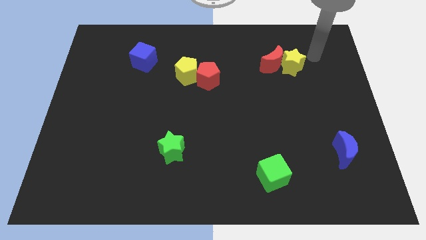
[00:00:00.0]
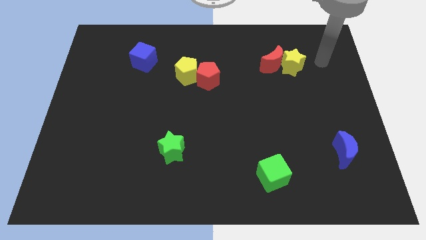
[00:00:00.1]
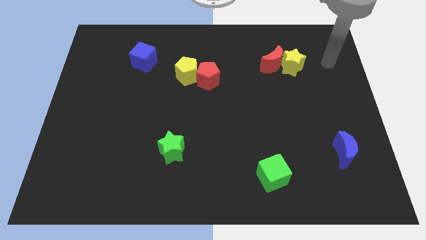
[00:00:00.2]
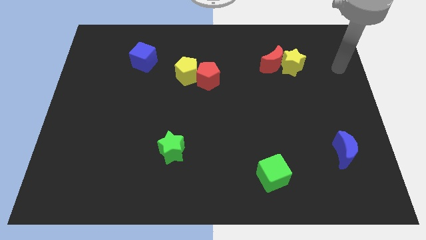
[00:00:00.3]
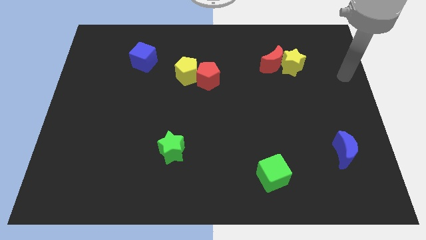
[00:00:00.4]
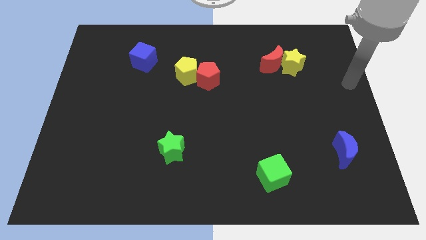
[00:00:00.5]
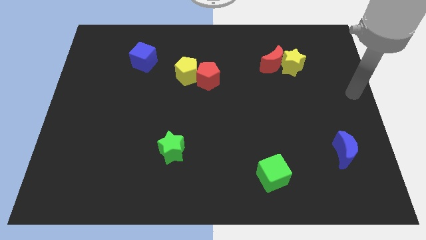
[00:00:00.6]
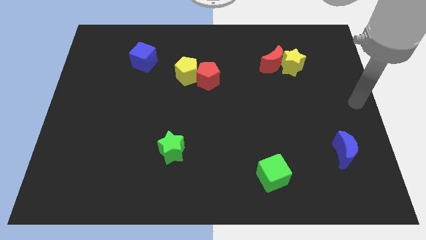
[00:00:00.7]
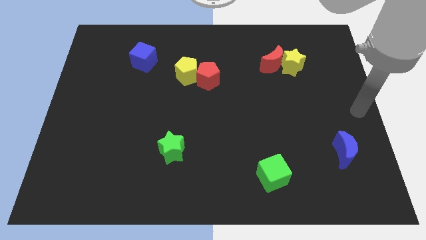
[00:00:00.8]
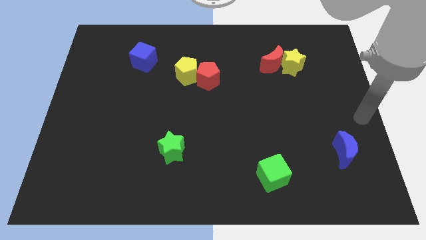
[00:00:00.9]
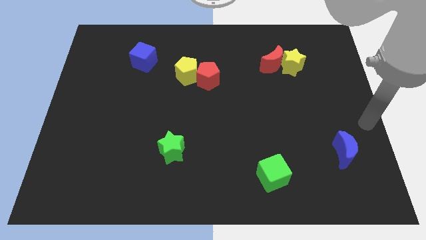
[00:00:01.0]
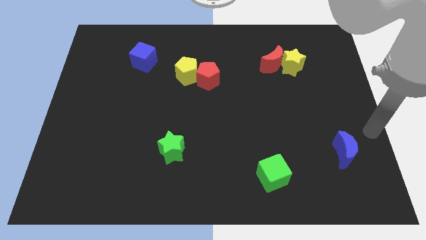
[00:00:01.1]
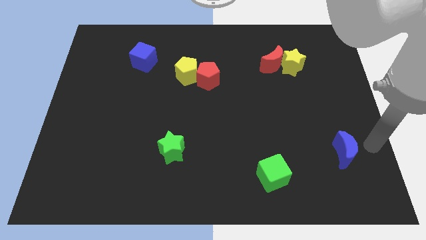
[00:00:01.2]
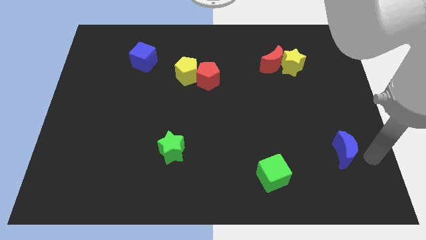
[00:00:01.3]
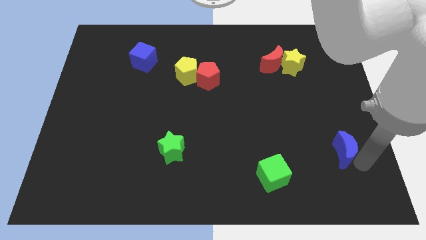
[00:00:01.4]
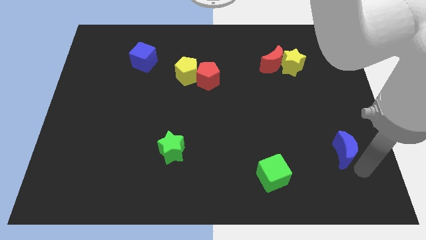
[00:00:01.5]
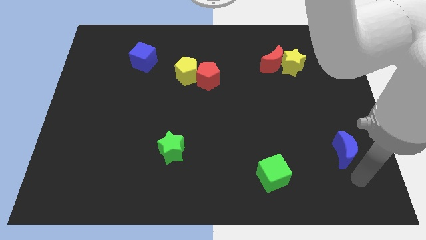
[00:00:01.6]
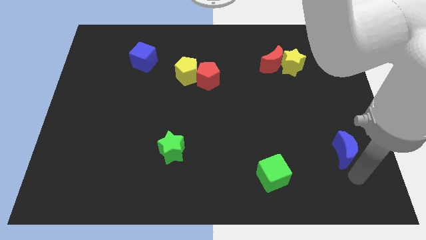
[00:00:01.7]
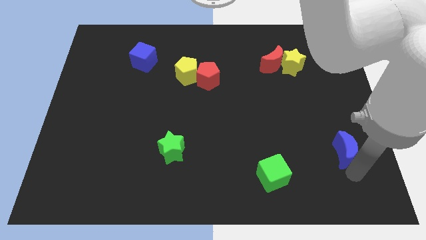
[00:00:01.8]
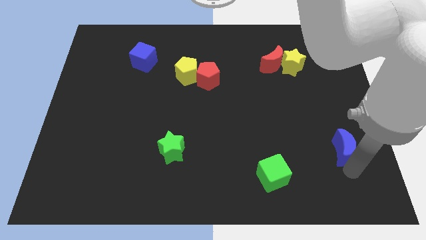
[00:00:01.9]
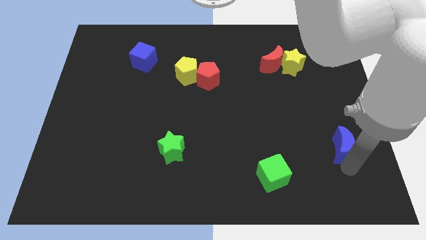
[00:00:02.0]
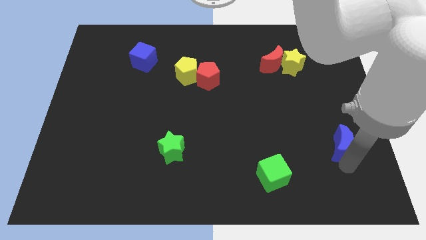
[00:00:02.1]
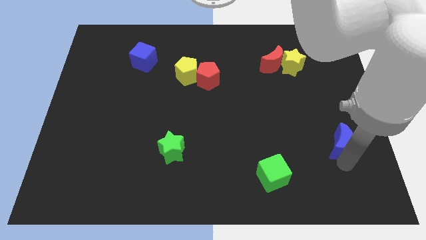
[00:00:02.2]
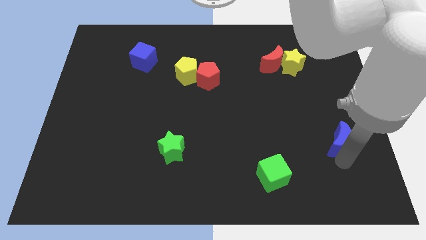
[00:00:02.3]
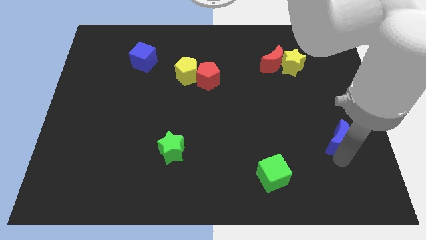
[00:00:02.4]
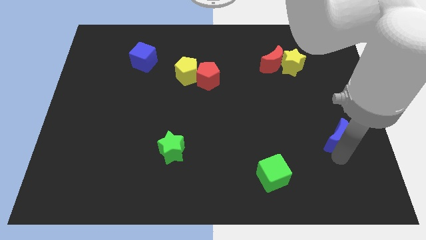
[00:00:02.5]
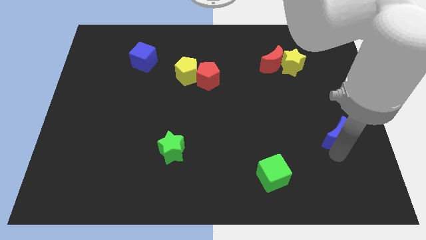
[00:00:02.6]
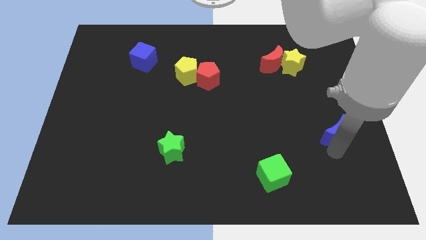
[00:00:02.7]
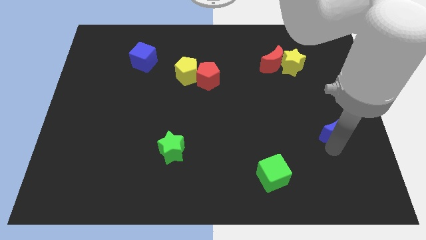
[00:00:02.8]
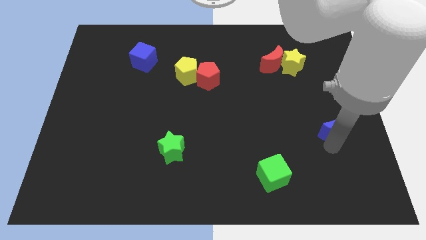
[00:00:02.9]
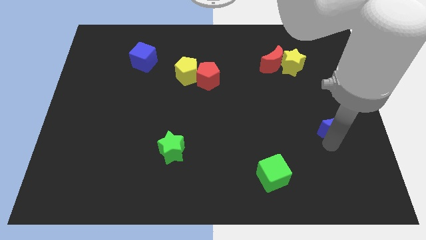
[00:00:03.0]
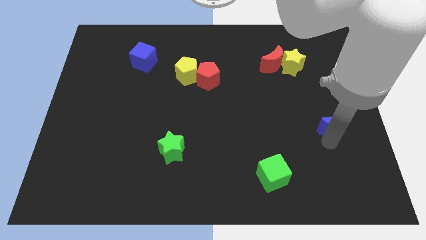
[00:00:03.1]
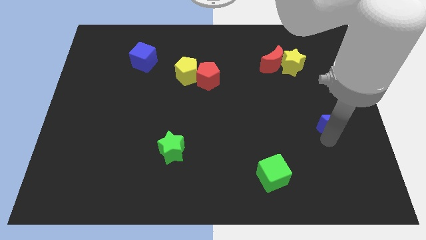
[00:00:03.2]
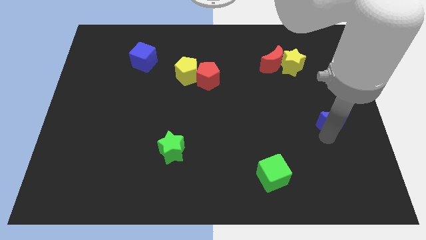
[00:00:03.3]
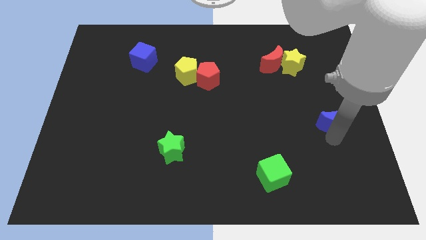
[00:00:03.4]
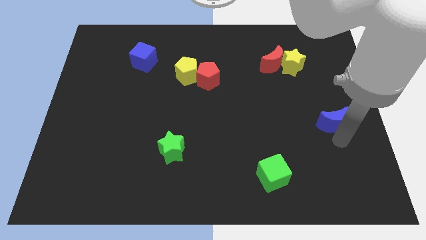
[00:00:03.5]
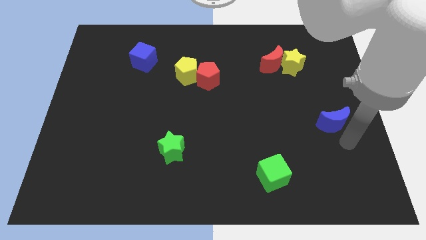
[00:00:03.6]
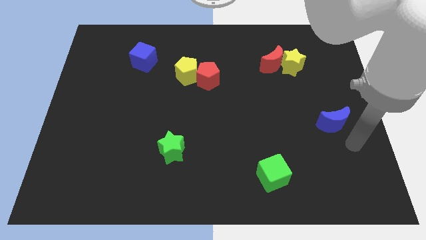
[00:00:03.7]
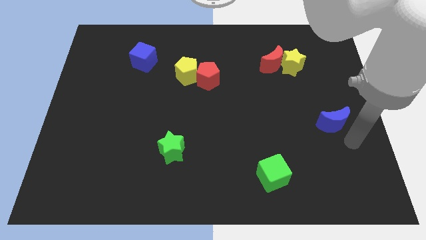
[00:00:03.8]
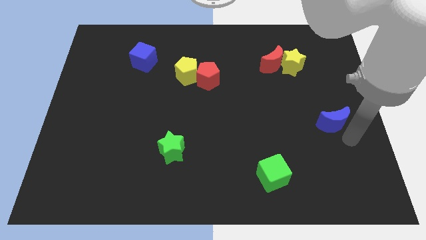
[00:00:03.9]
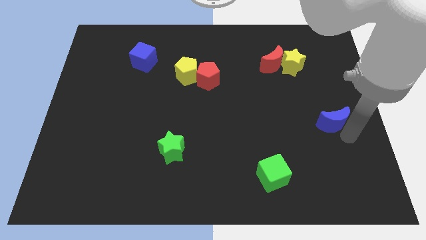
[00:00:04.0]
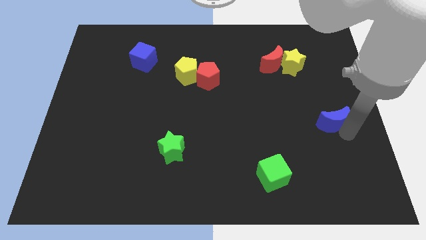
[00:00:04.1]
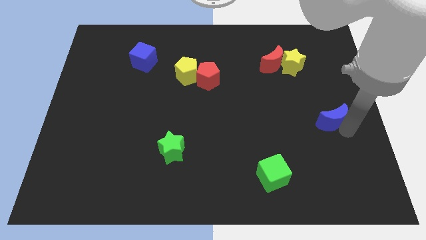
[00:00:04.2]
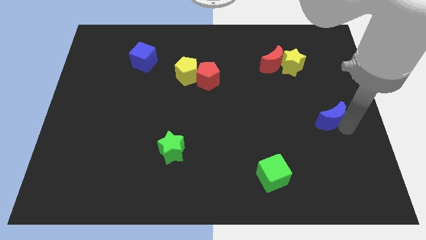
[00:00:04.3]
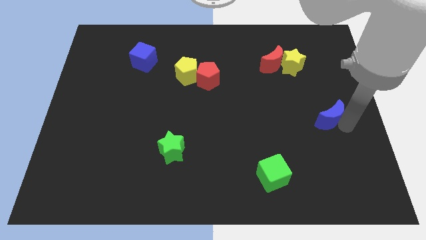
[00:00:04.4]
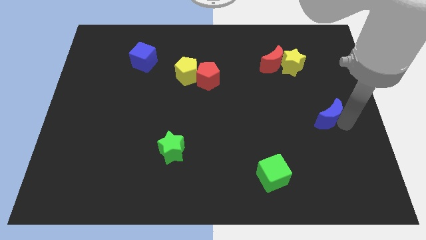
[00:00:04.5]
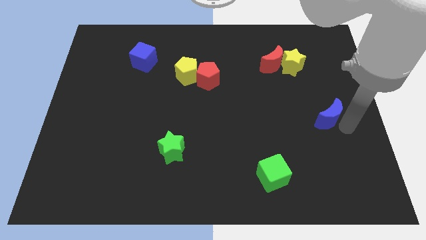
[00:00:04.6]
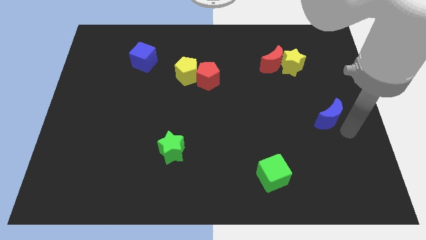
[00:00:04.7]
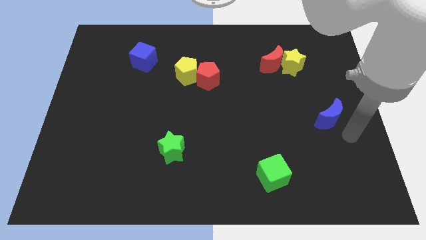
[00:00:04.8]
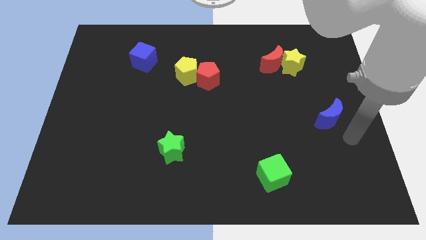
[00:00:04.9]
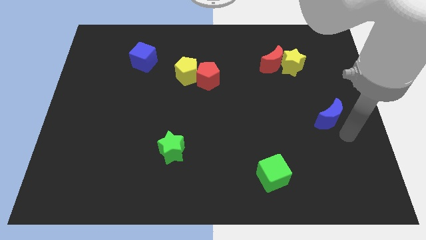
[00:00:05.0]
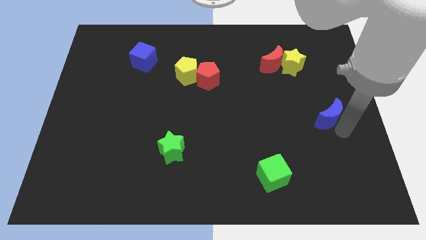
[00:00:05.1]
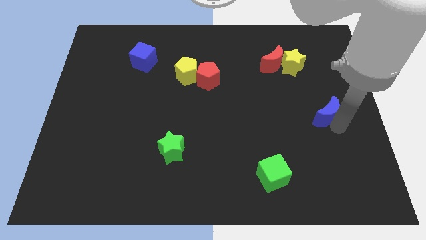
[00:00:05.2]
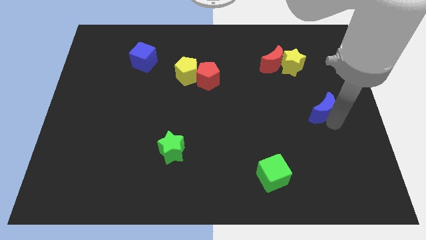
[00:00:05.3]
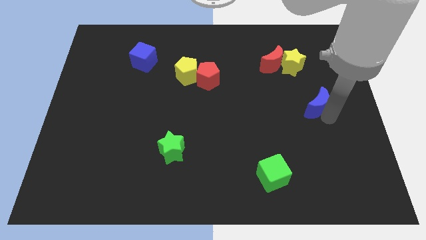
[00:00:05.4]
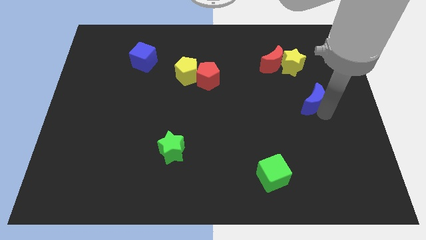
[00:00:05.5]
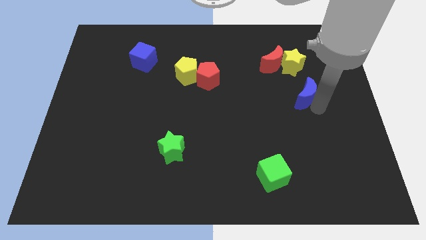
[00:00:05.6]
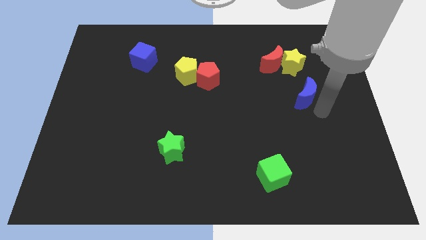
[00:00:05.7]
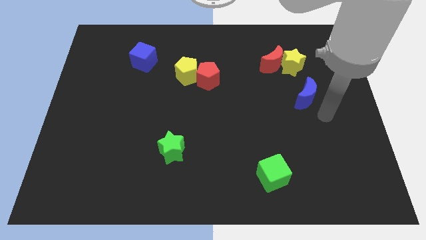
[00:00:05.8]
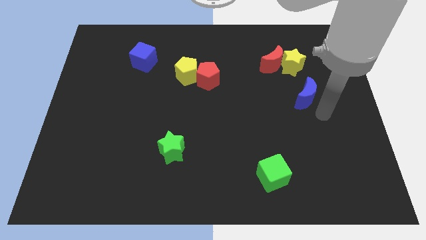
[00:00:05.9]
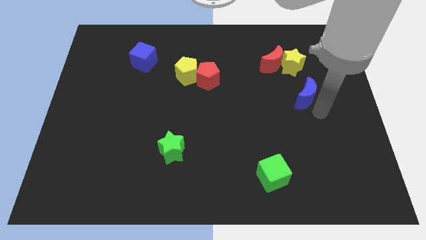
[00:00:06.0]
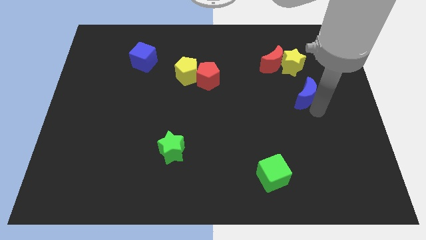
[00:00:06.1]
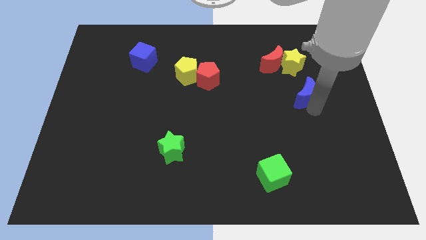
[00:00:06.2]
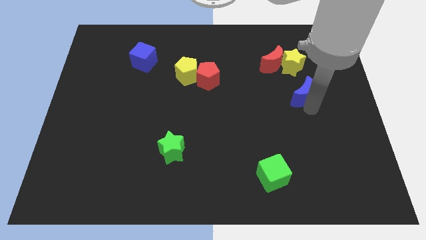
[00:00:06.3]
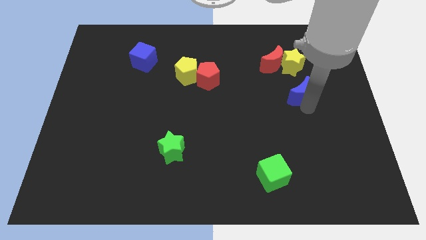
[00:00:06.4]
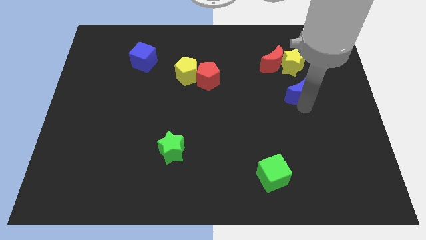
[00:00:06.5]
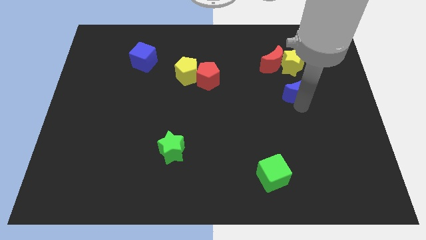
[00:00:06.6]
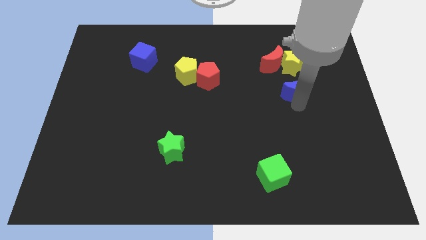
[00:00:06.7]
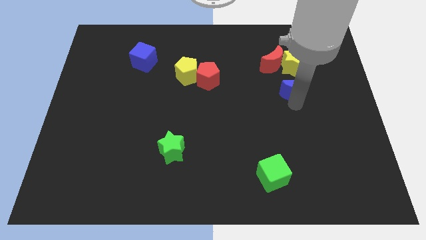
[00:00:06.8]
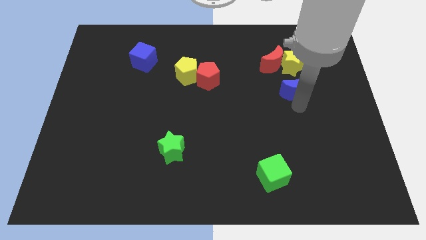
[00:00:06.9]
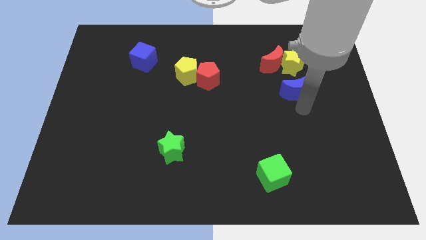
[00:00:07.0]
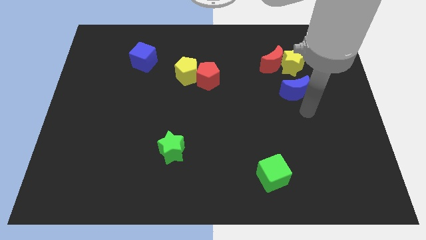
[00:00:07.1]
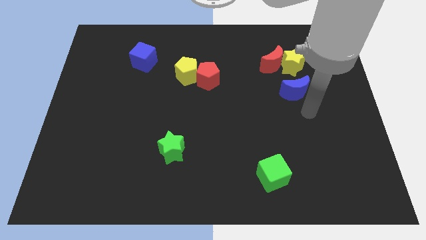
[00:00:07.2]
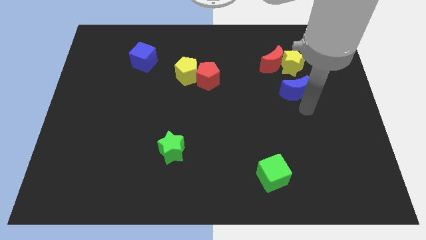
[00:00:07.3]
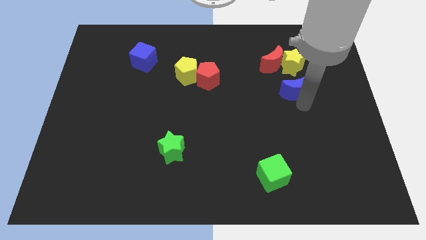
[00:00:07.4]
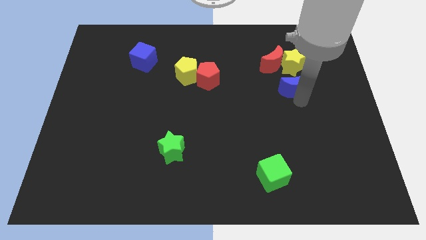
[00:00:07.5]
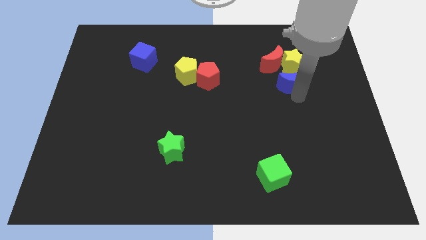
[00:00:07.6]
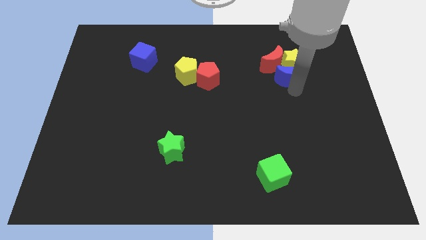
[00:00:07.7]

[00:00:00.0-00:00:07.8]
slide the blue moon towards the red moon
